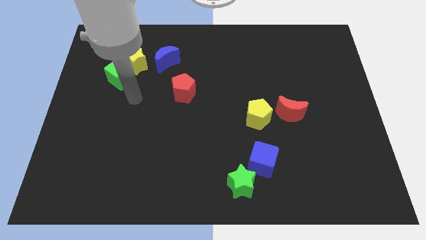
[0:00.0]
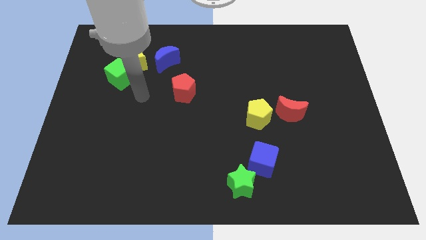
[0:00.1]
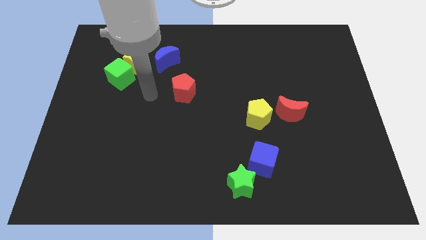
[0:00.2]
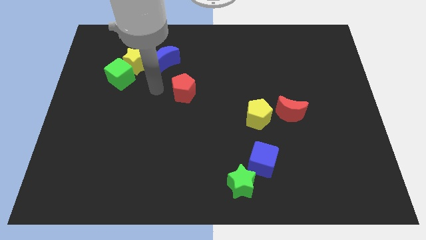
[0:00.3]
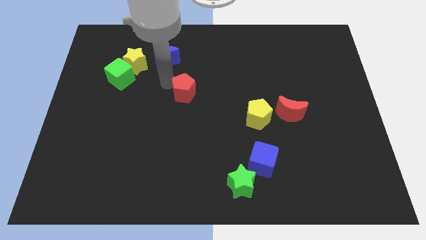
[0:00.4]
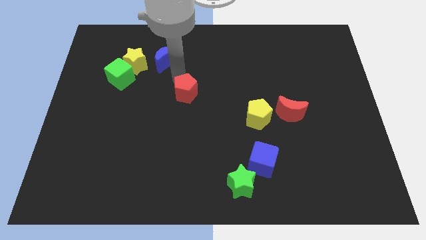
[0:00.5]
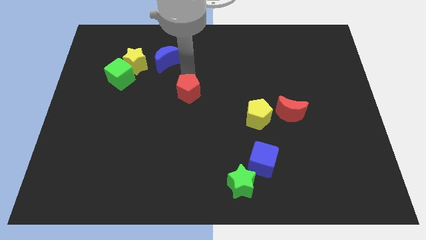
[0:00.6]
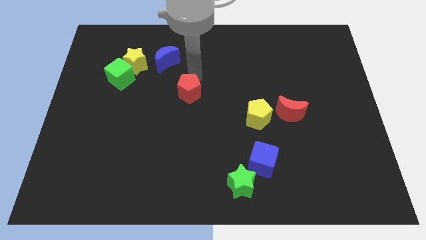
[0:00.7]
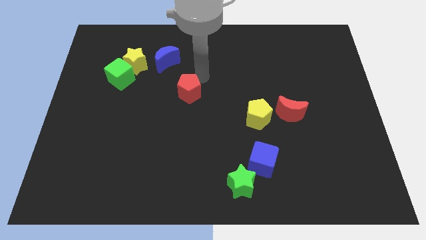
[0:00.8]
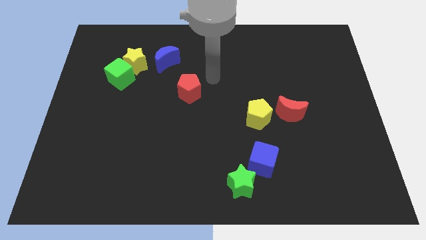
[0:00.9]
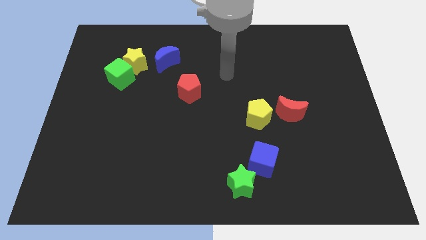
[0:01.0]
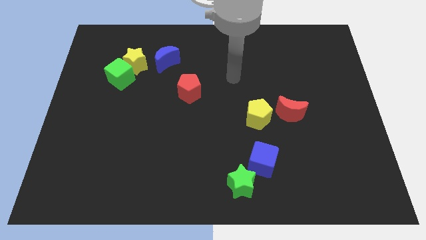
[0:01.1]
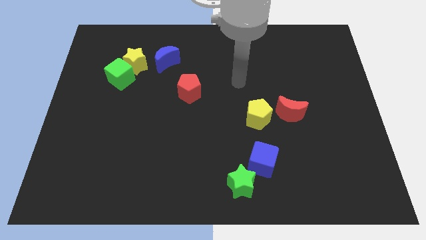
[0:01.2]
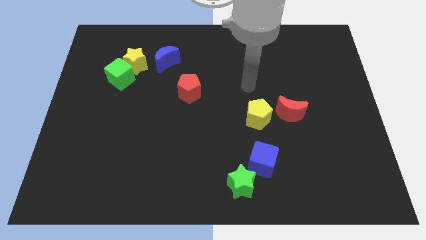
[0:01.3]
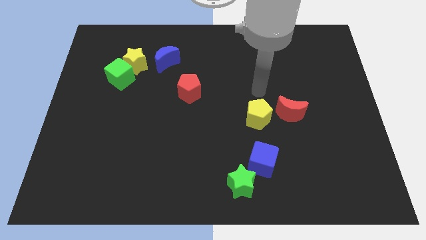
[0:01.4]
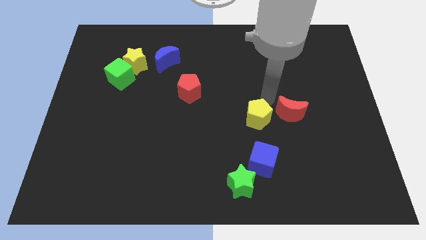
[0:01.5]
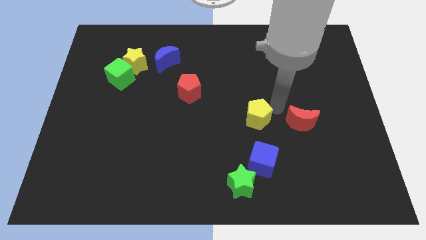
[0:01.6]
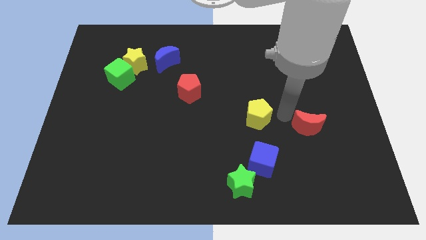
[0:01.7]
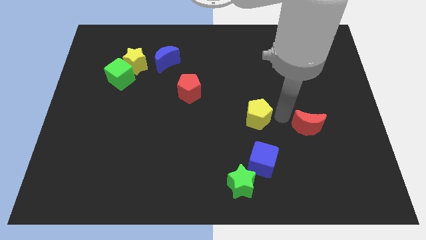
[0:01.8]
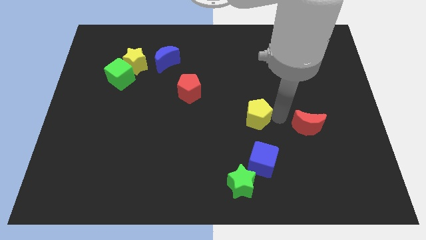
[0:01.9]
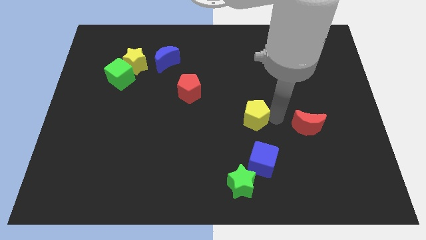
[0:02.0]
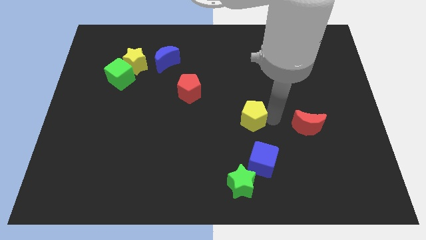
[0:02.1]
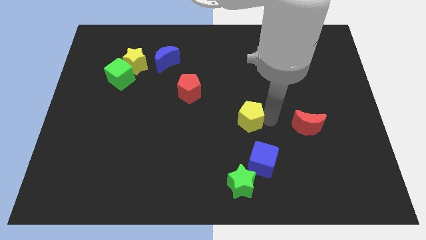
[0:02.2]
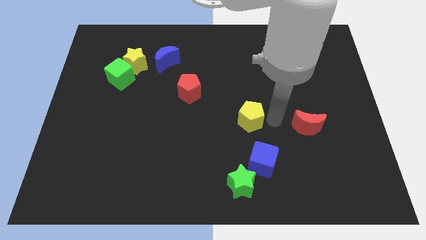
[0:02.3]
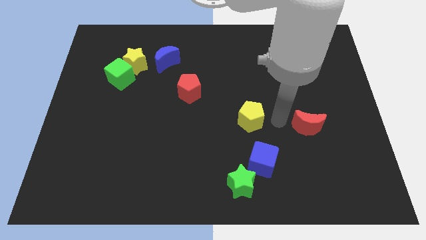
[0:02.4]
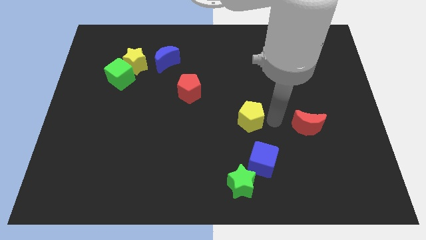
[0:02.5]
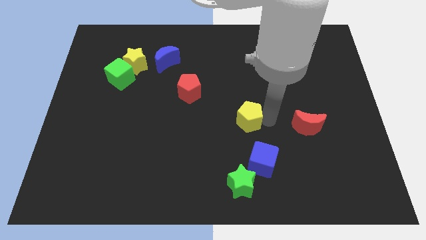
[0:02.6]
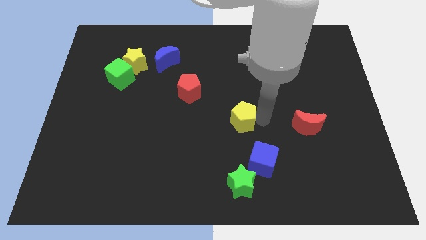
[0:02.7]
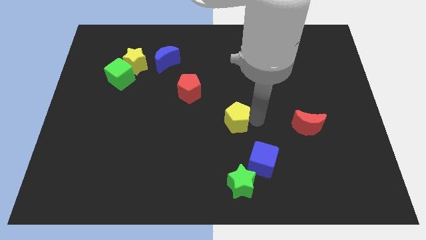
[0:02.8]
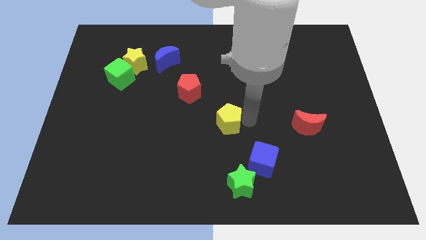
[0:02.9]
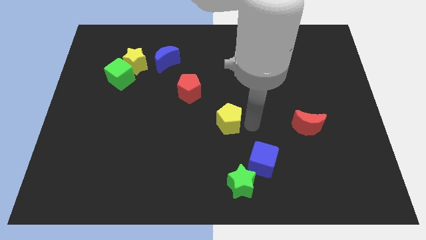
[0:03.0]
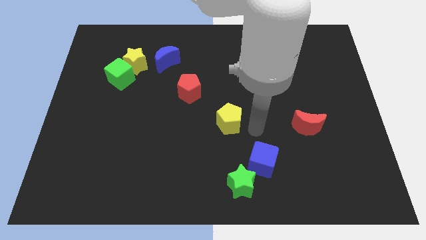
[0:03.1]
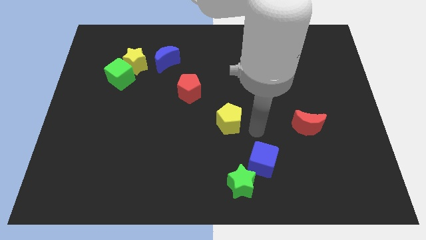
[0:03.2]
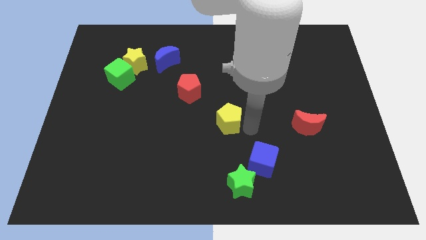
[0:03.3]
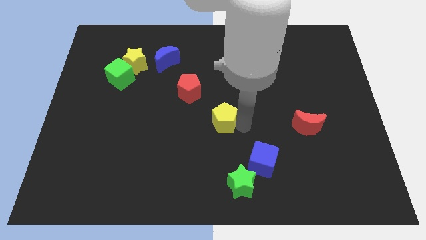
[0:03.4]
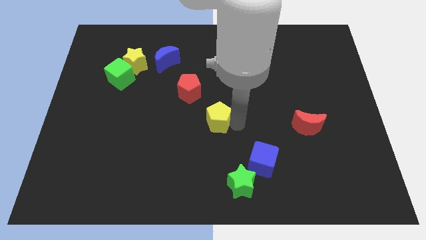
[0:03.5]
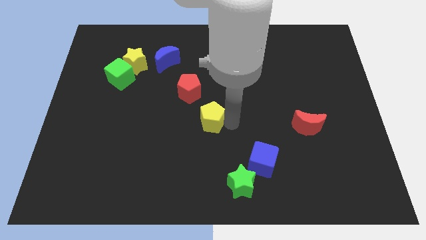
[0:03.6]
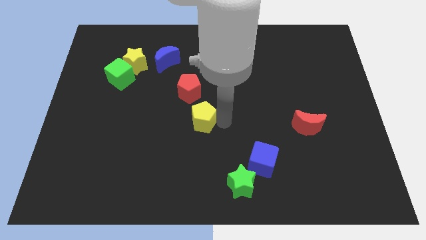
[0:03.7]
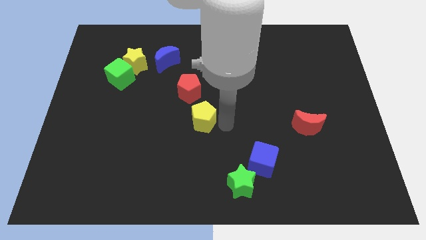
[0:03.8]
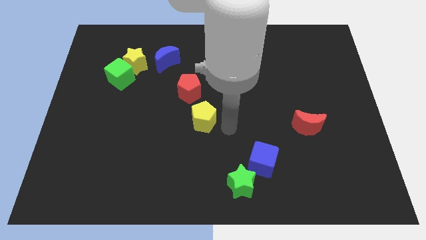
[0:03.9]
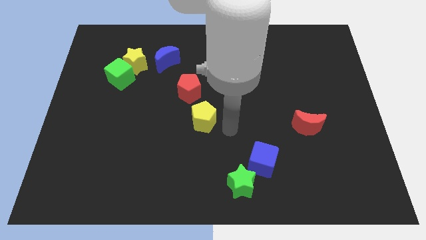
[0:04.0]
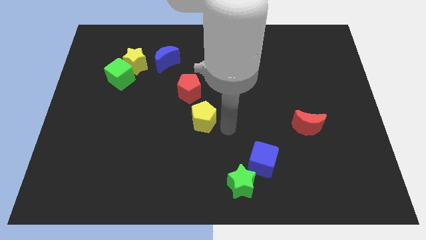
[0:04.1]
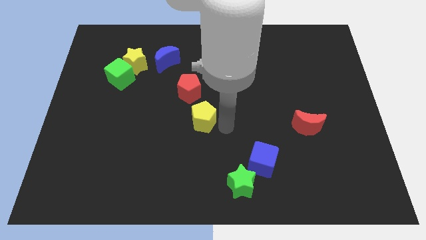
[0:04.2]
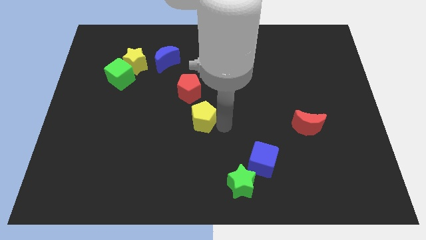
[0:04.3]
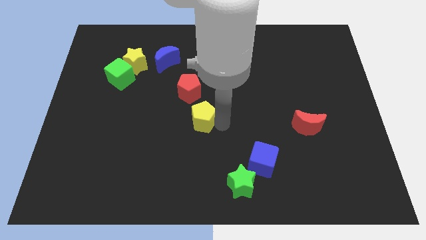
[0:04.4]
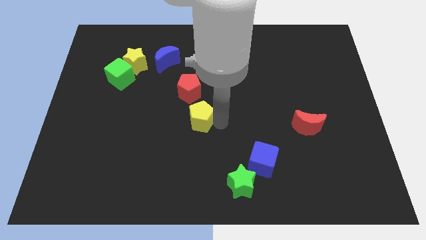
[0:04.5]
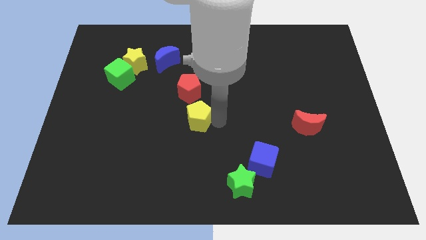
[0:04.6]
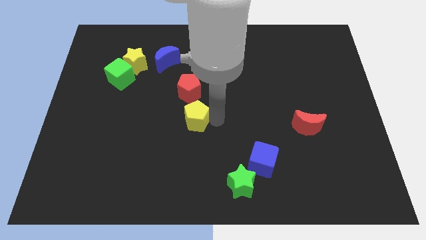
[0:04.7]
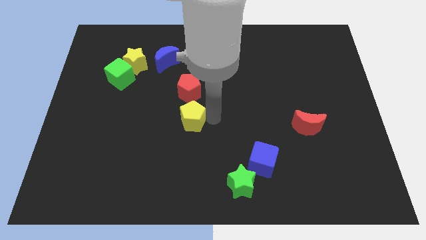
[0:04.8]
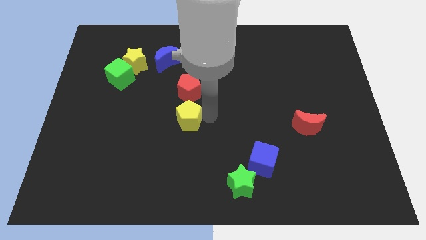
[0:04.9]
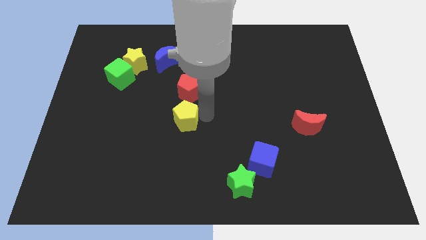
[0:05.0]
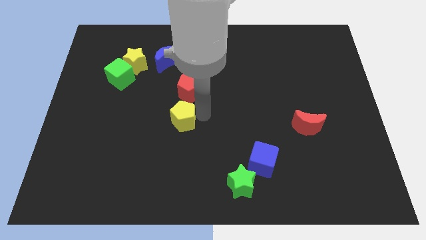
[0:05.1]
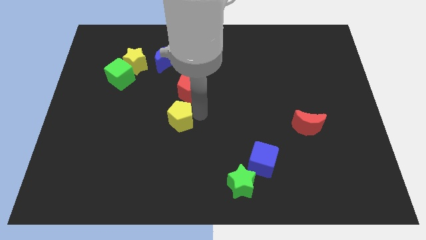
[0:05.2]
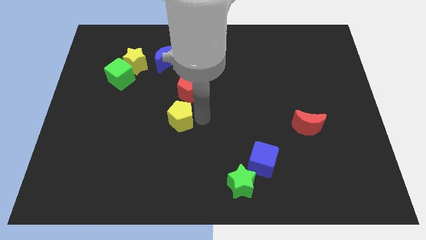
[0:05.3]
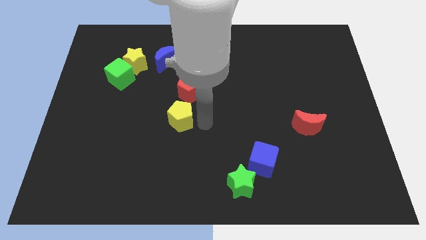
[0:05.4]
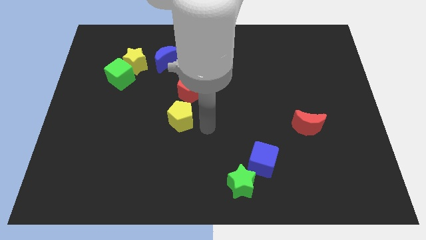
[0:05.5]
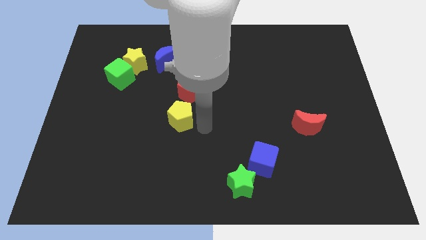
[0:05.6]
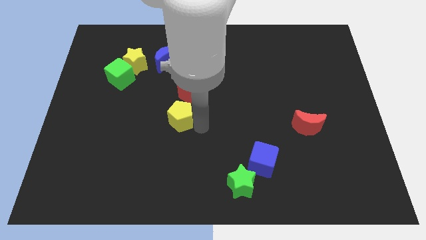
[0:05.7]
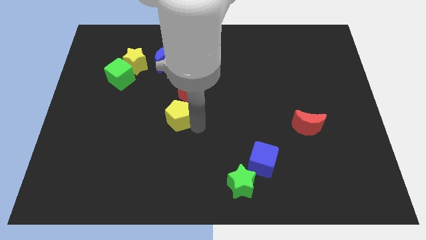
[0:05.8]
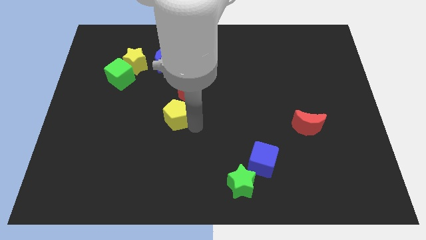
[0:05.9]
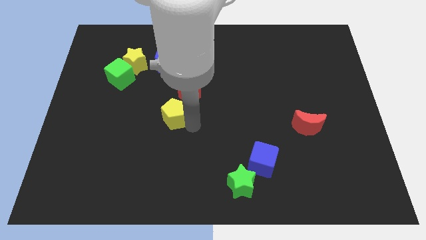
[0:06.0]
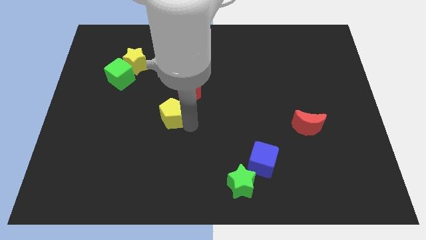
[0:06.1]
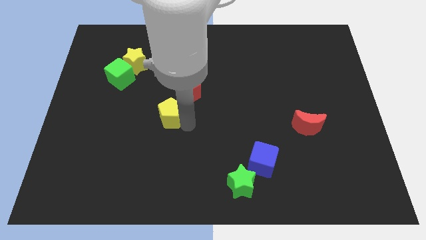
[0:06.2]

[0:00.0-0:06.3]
push the yellow pentagon left

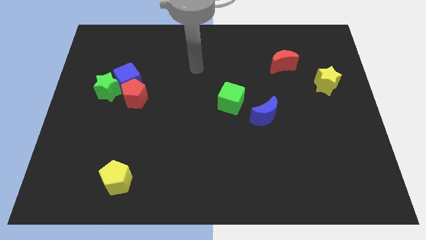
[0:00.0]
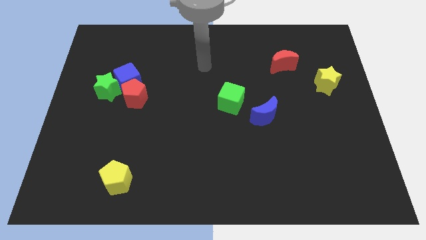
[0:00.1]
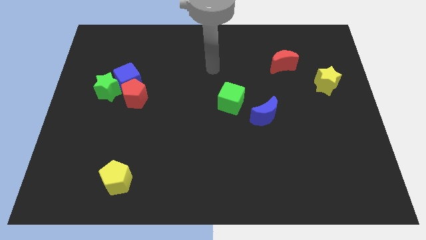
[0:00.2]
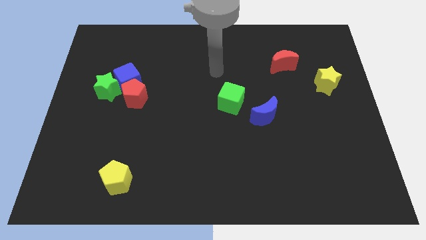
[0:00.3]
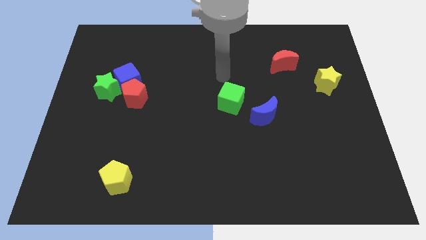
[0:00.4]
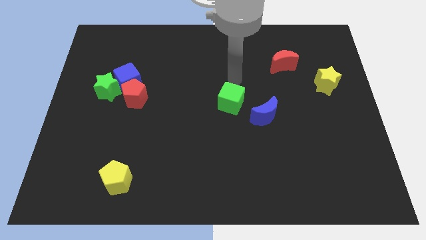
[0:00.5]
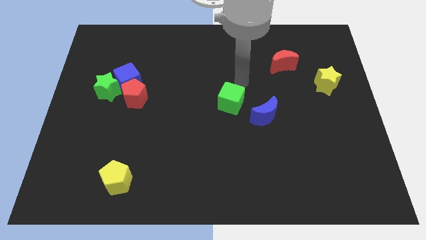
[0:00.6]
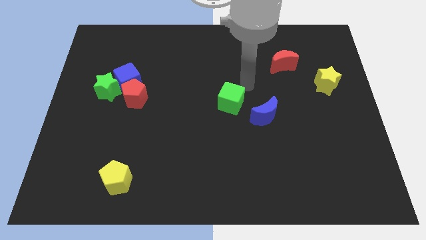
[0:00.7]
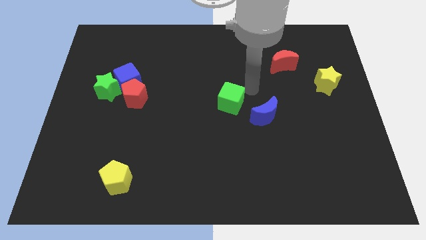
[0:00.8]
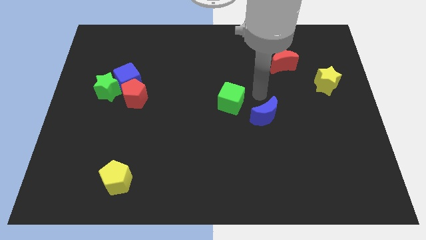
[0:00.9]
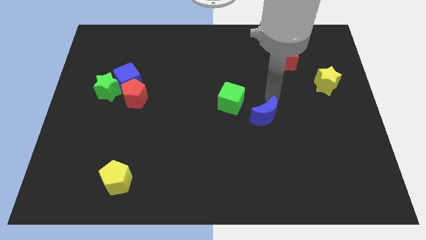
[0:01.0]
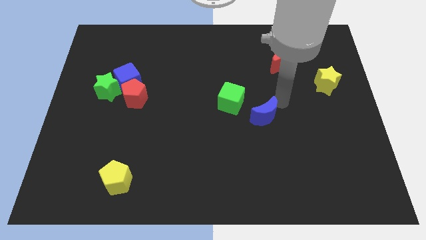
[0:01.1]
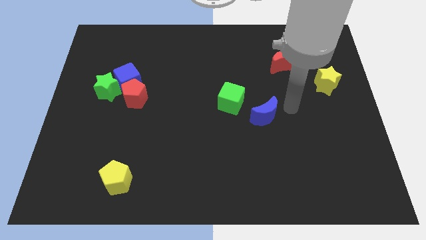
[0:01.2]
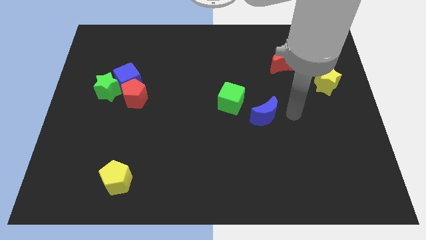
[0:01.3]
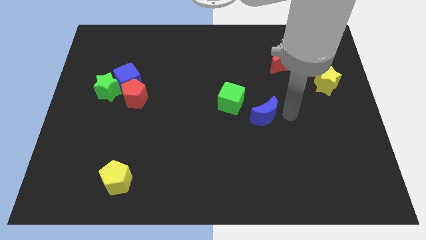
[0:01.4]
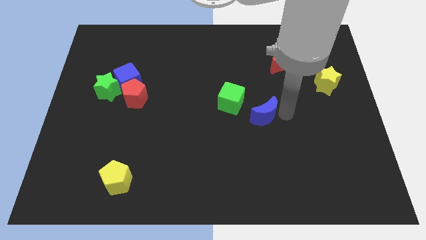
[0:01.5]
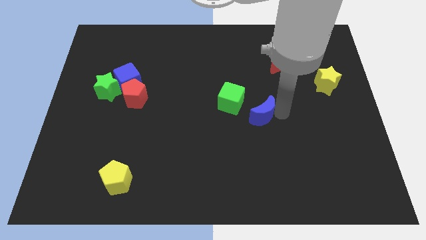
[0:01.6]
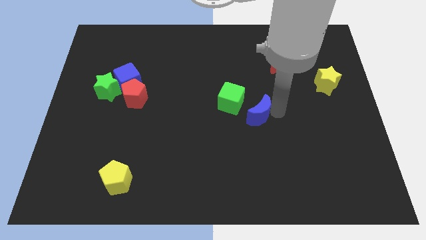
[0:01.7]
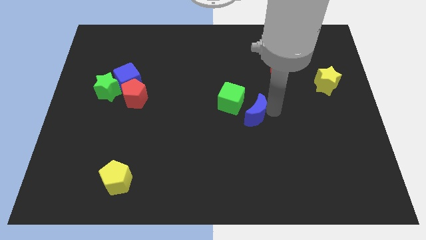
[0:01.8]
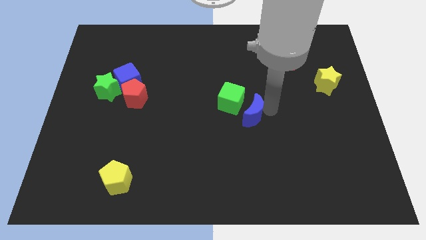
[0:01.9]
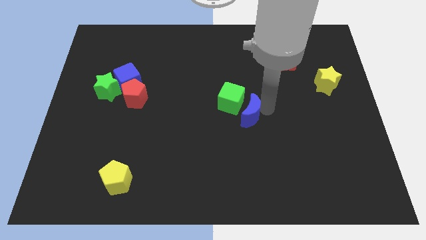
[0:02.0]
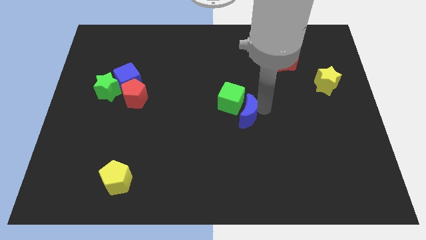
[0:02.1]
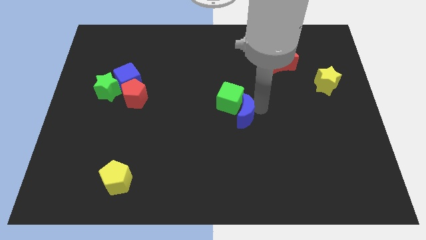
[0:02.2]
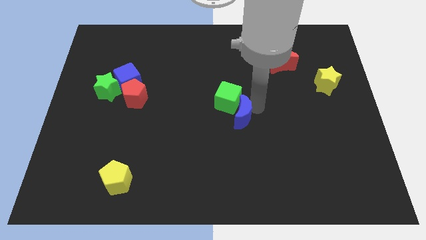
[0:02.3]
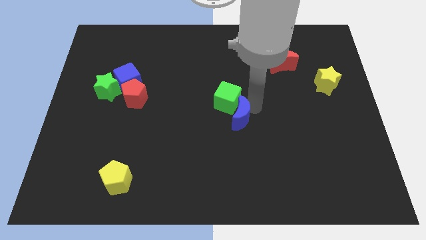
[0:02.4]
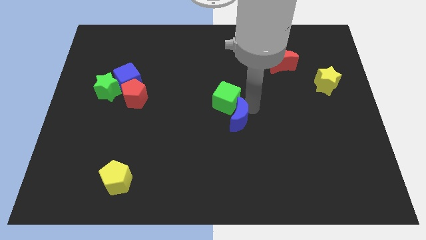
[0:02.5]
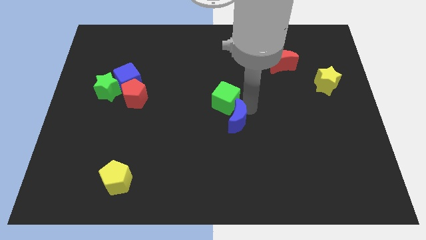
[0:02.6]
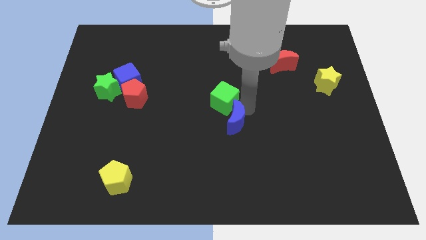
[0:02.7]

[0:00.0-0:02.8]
push the blue moon somewhat left
